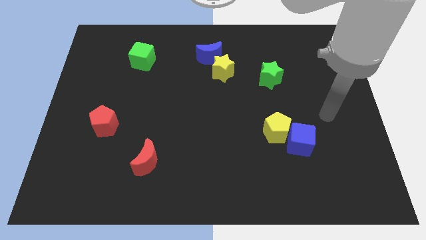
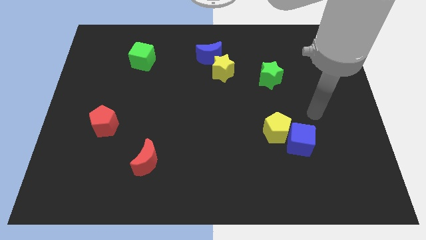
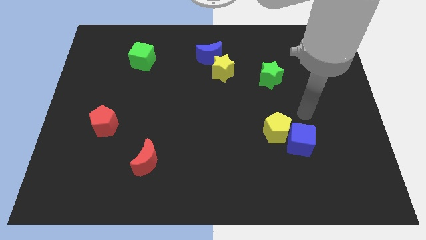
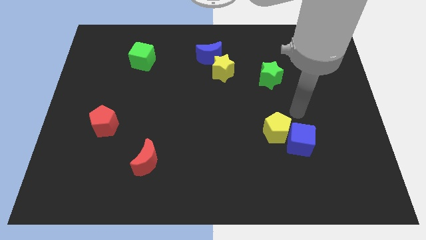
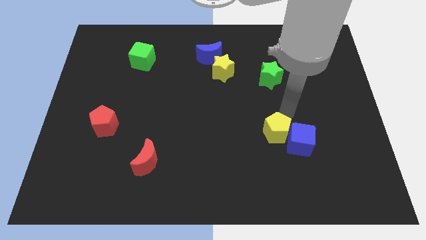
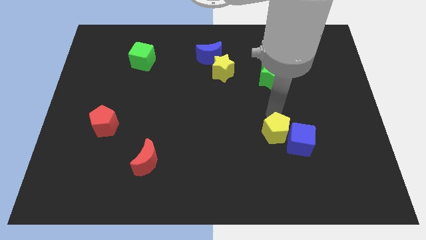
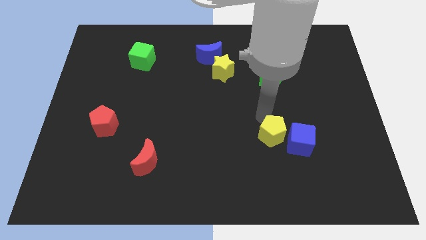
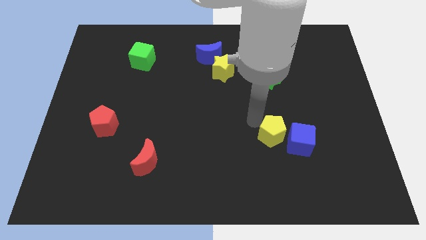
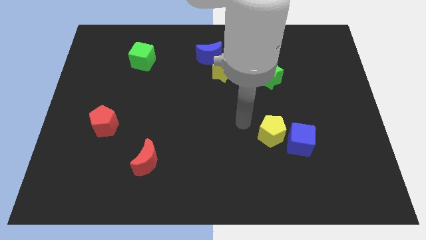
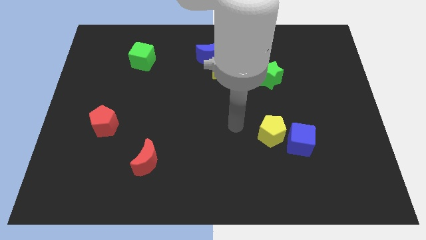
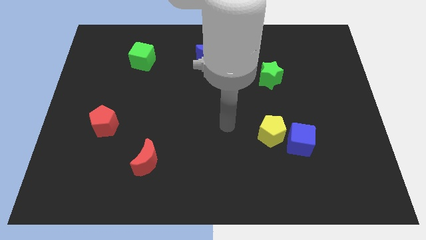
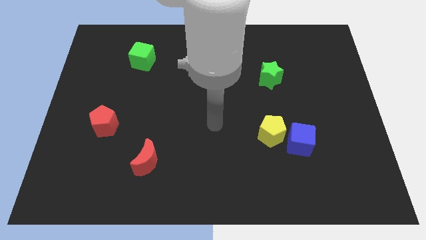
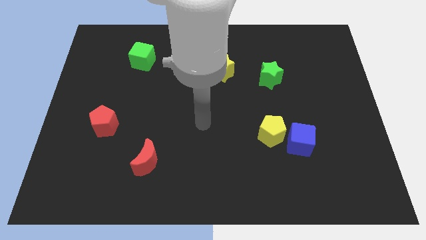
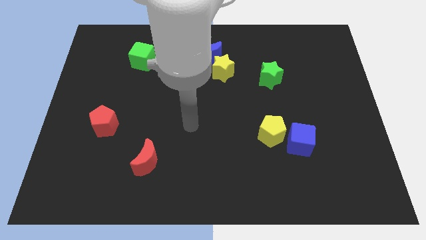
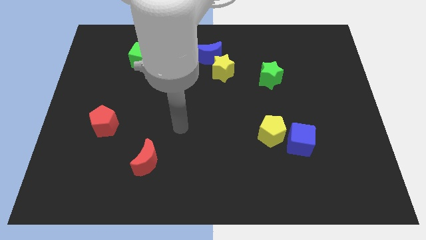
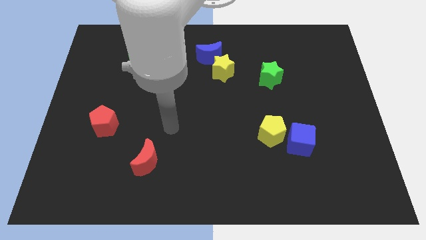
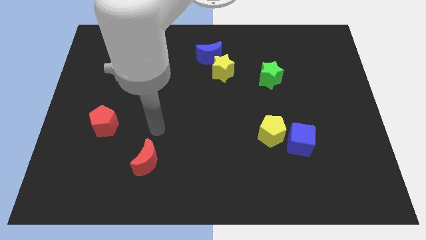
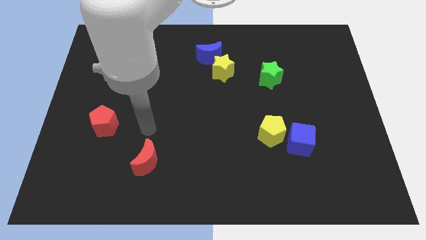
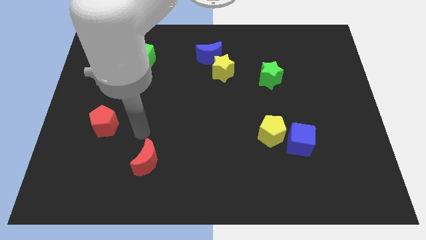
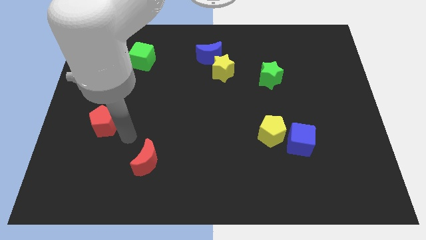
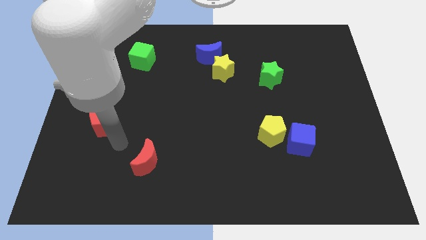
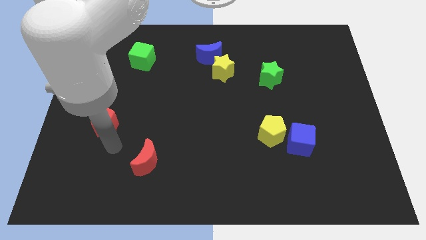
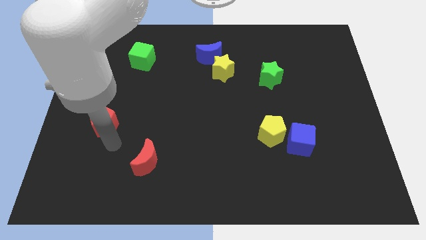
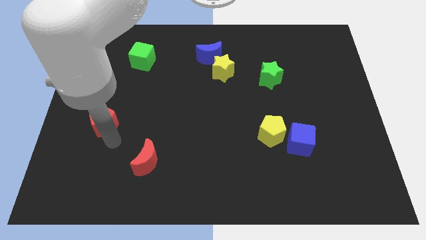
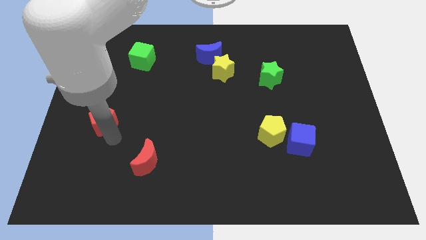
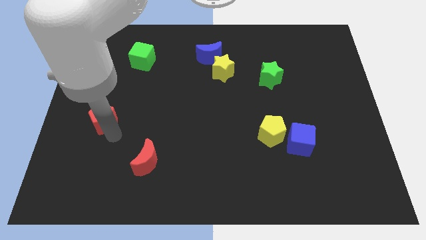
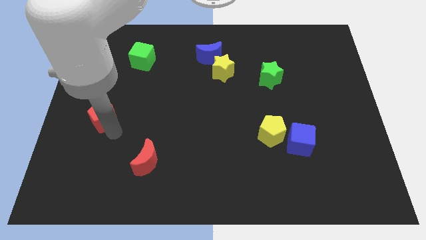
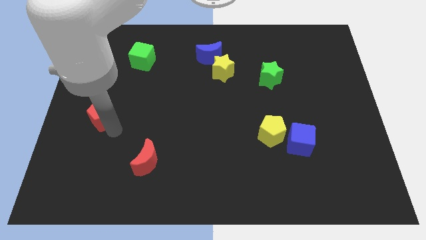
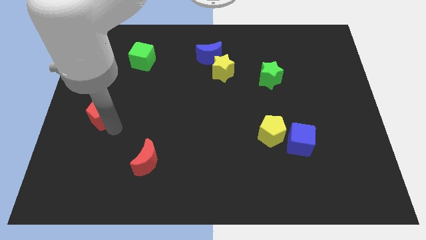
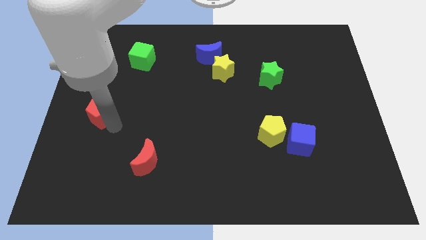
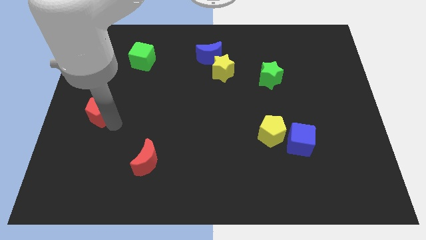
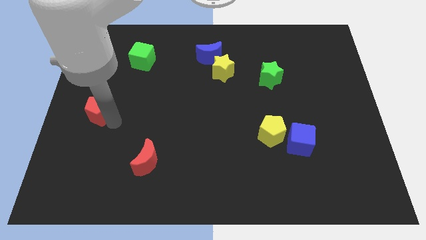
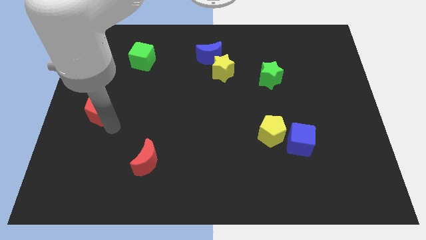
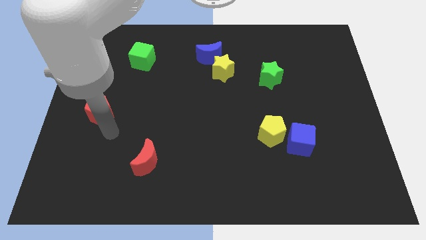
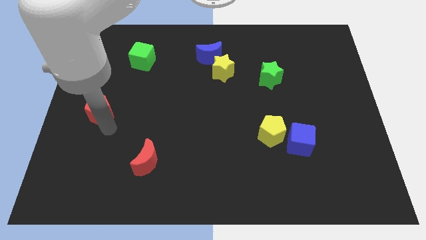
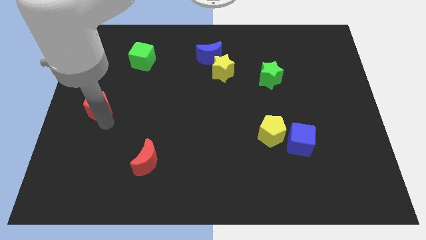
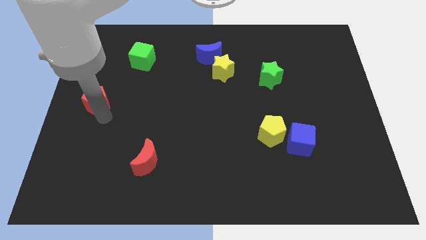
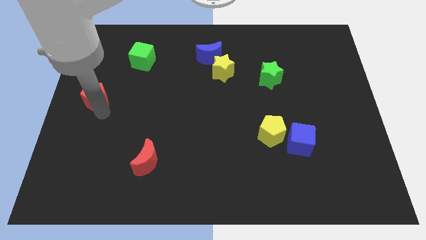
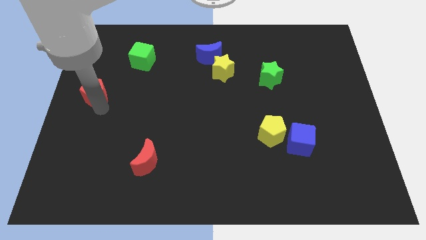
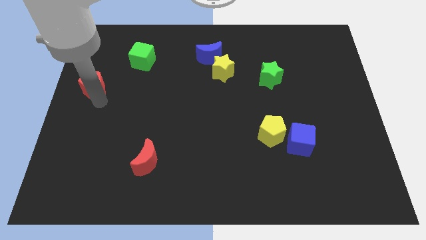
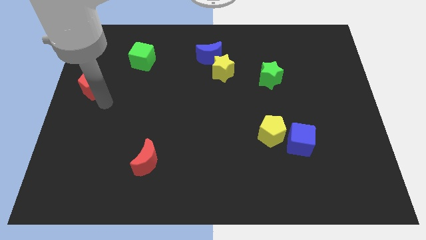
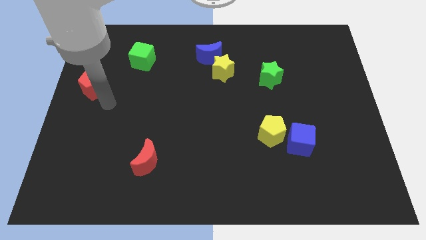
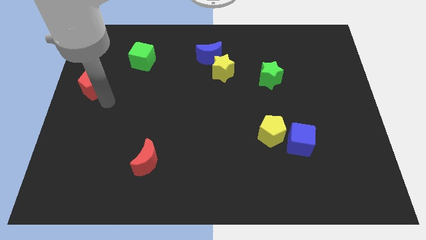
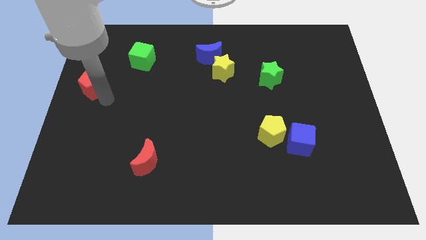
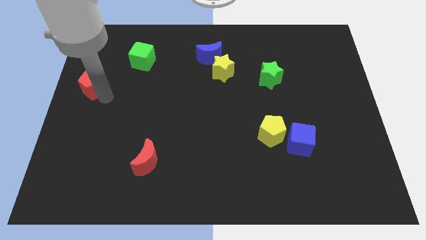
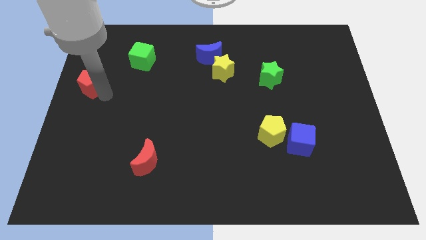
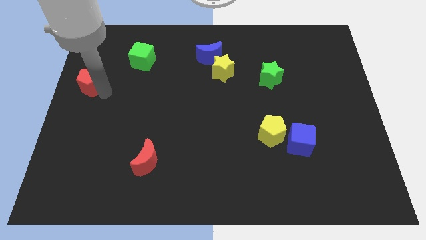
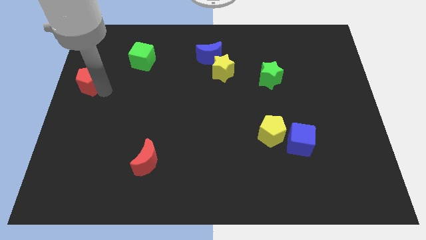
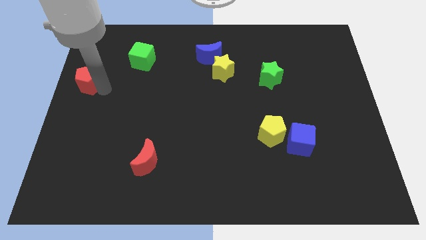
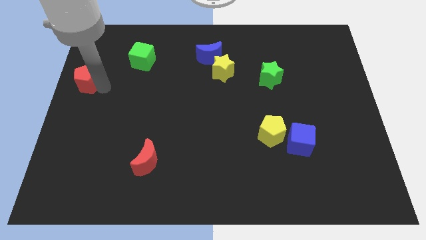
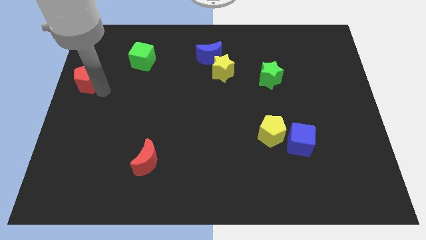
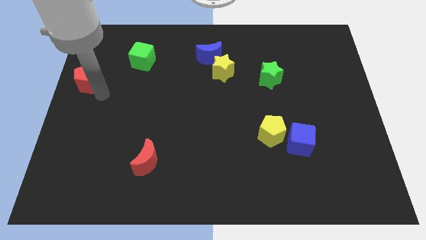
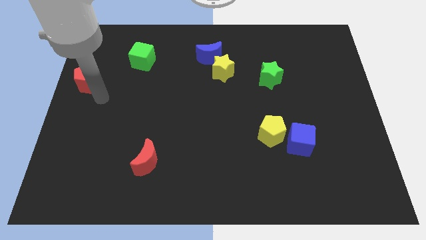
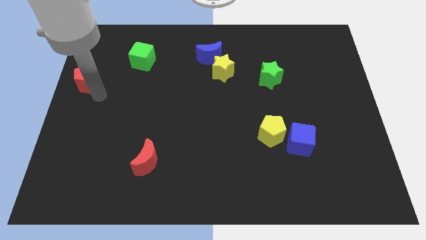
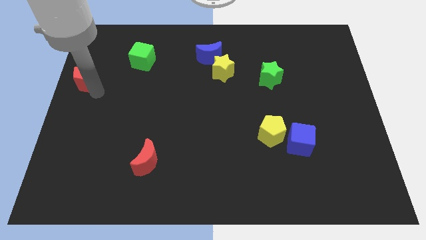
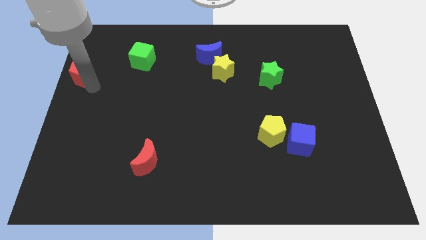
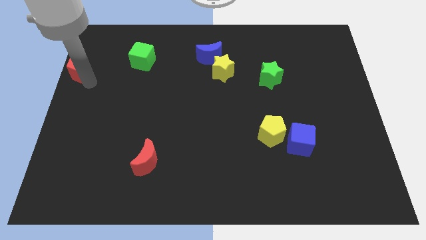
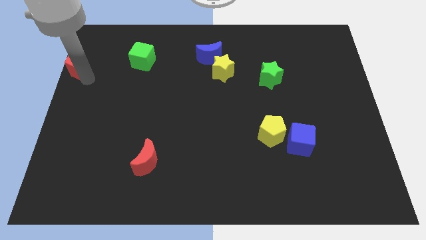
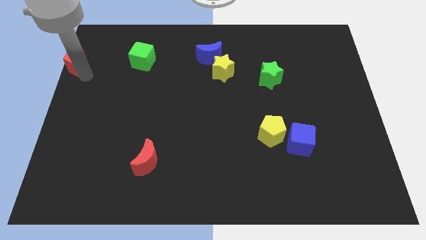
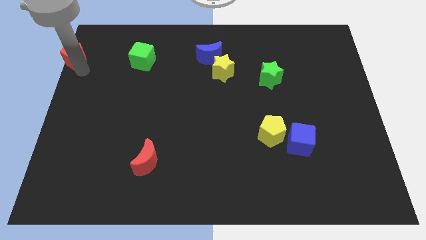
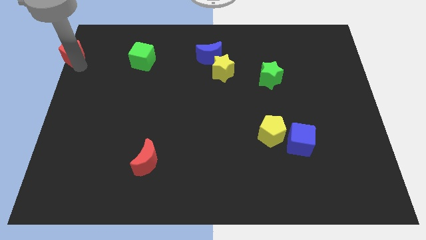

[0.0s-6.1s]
move the red pentagon to the top left of the board
